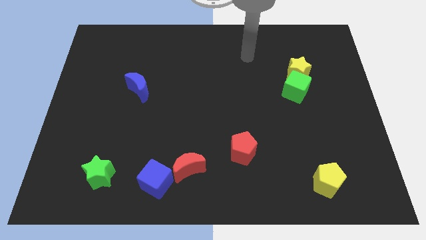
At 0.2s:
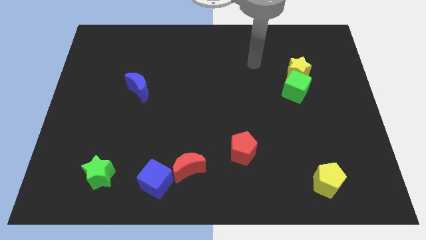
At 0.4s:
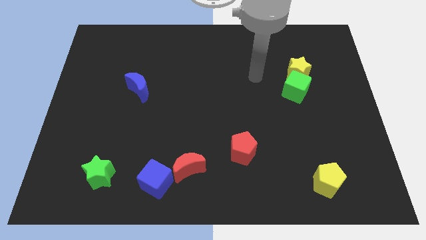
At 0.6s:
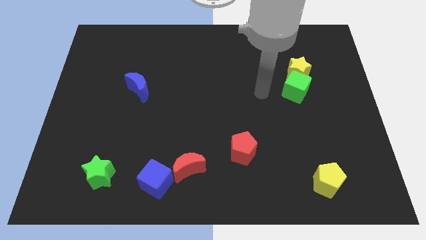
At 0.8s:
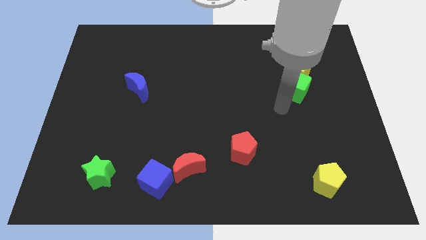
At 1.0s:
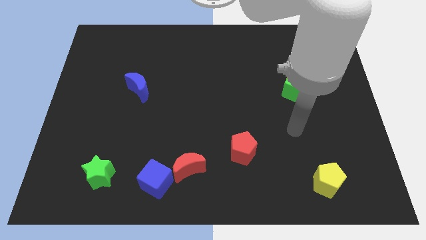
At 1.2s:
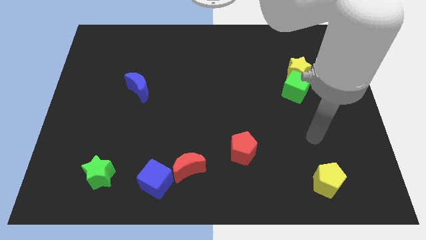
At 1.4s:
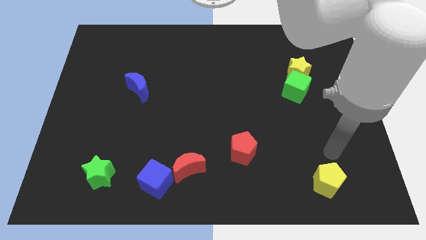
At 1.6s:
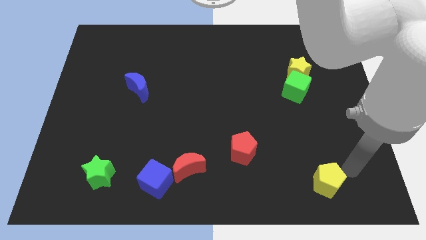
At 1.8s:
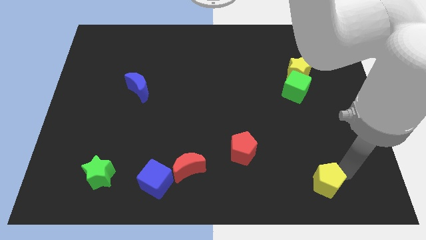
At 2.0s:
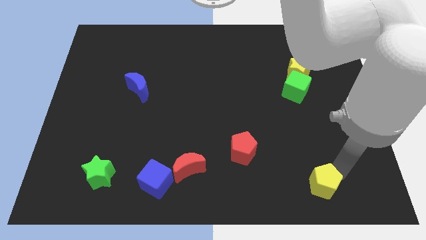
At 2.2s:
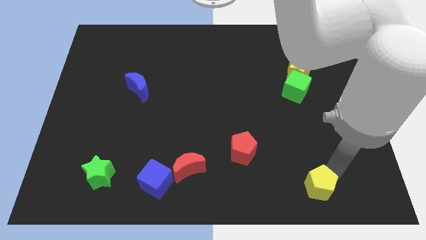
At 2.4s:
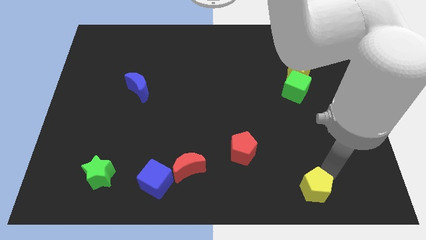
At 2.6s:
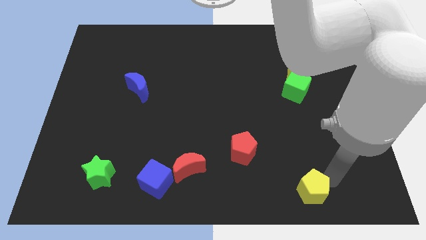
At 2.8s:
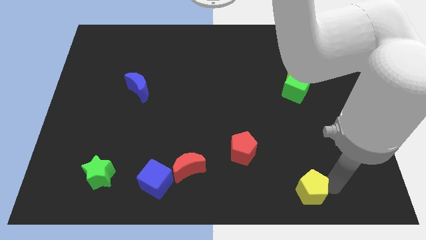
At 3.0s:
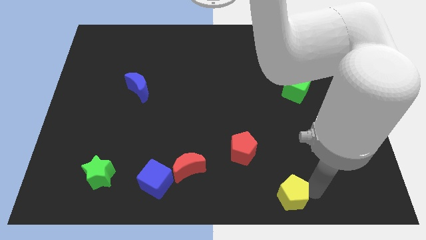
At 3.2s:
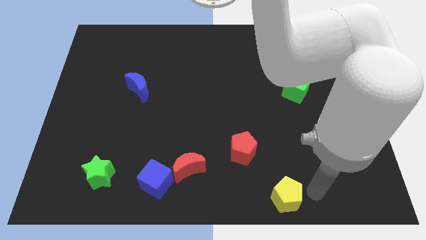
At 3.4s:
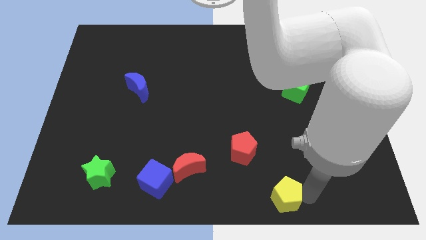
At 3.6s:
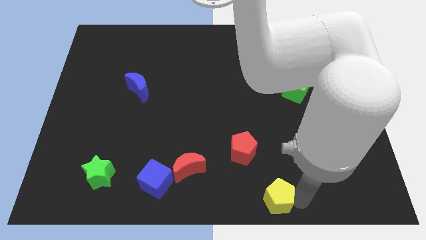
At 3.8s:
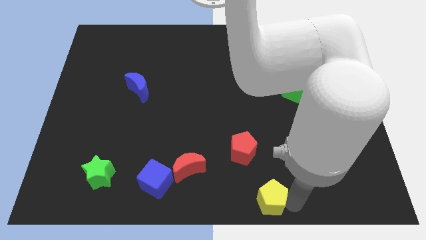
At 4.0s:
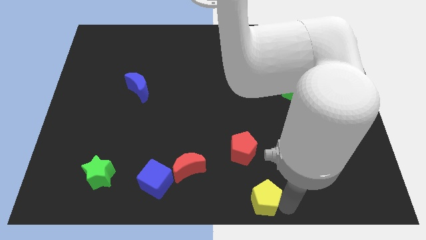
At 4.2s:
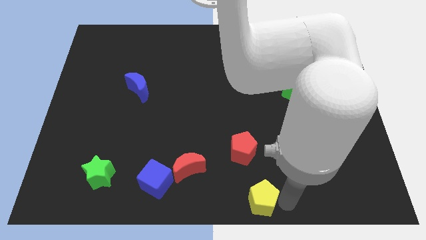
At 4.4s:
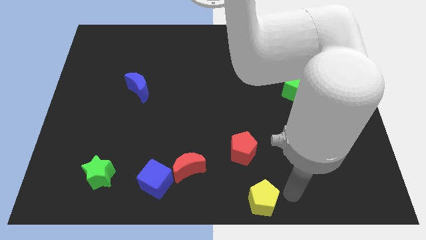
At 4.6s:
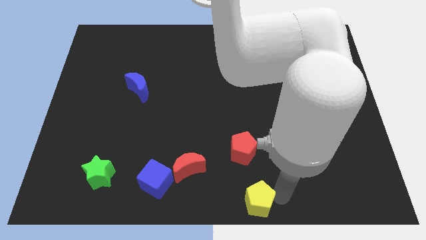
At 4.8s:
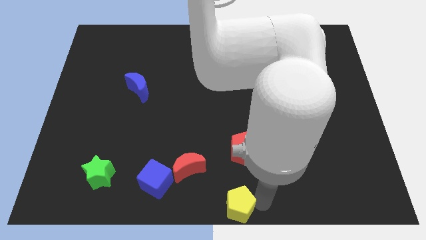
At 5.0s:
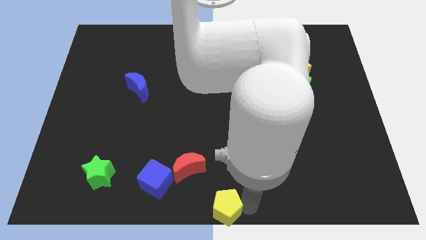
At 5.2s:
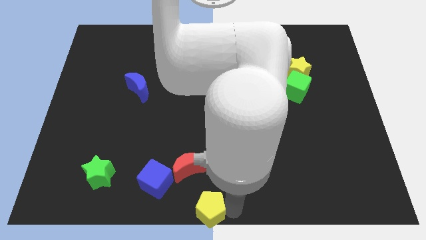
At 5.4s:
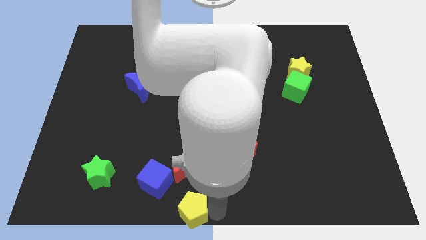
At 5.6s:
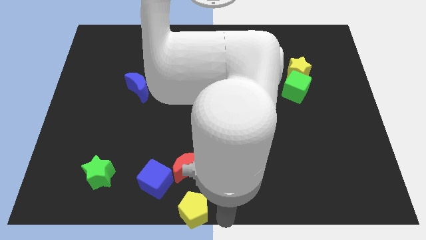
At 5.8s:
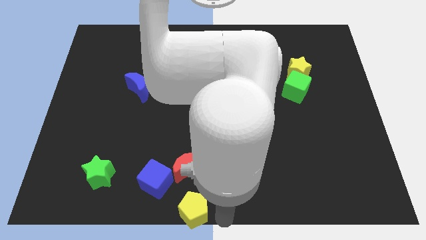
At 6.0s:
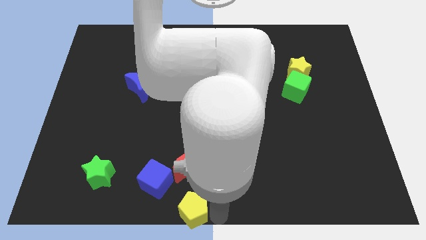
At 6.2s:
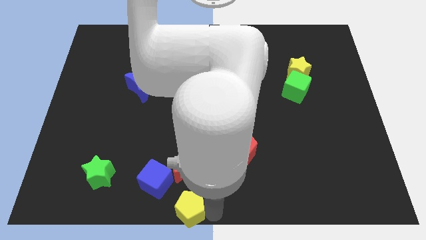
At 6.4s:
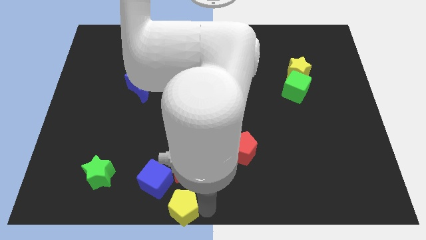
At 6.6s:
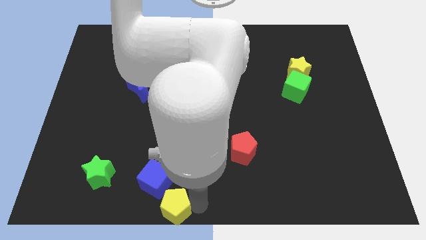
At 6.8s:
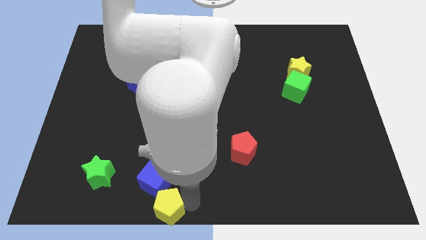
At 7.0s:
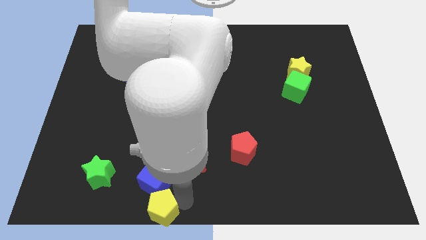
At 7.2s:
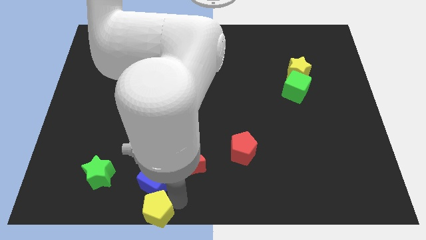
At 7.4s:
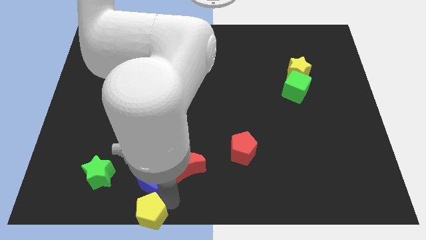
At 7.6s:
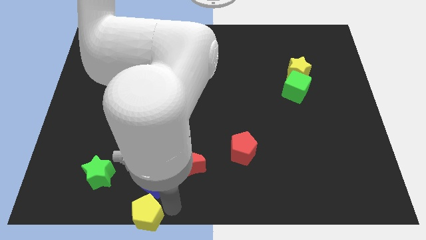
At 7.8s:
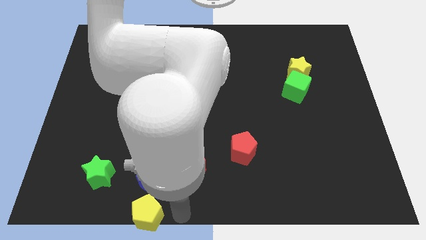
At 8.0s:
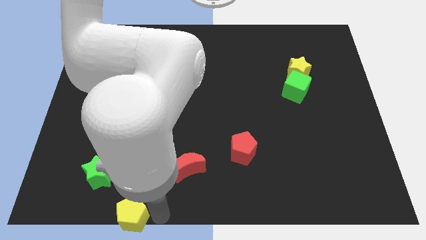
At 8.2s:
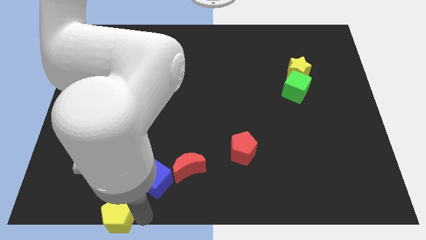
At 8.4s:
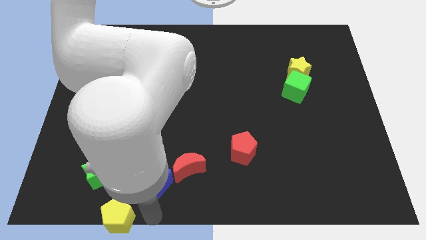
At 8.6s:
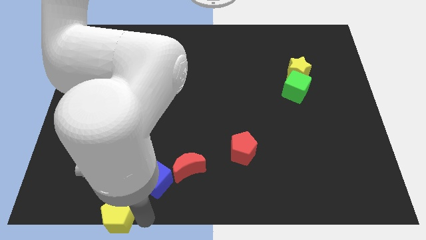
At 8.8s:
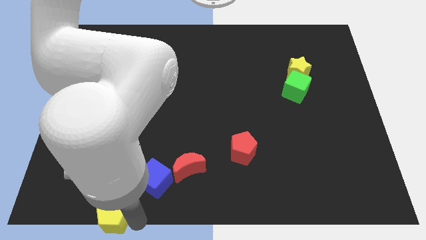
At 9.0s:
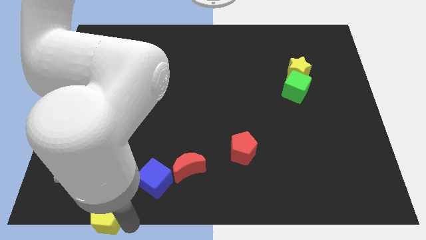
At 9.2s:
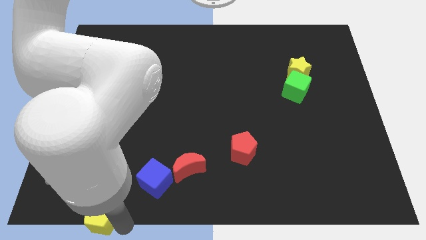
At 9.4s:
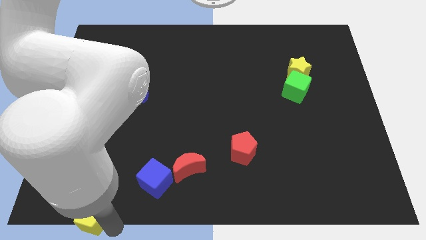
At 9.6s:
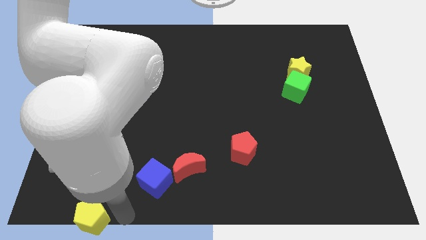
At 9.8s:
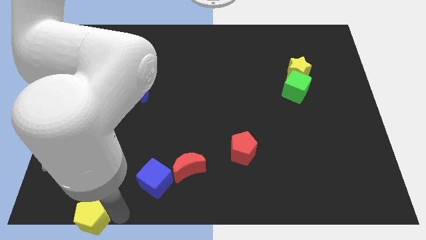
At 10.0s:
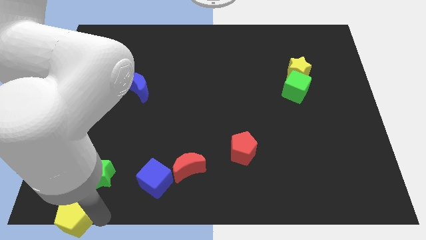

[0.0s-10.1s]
move the yellow pentagon to the bottom left corner

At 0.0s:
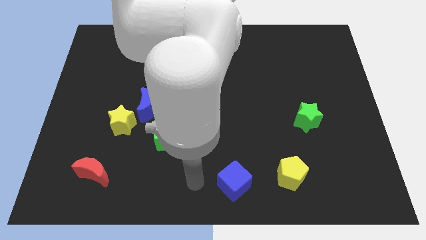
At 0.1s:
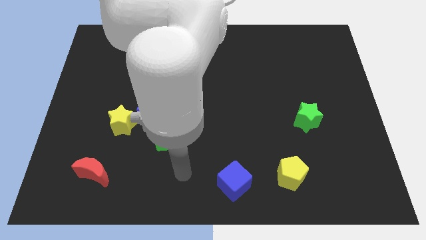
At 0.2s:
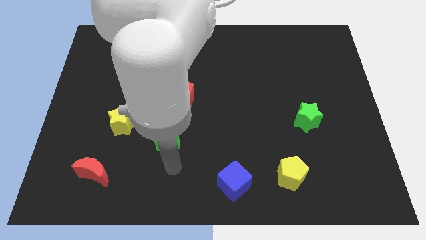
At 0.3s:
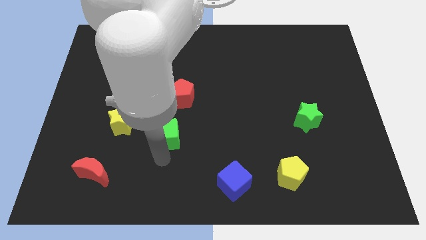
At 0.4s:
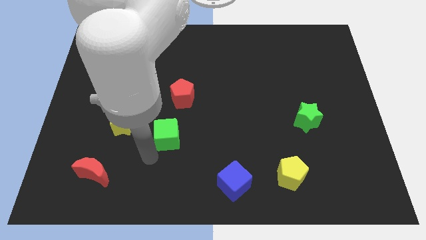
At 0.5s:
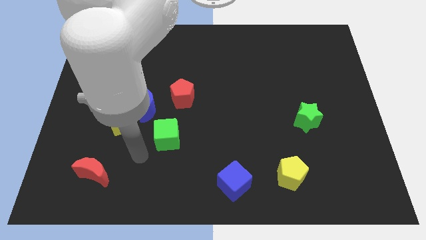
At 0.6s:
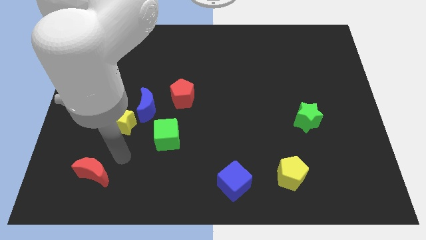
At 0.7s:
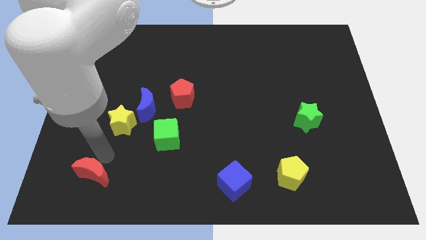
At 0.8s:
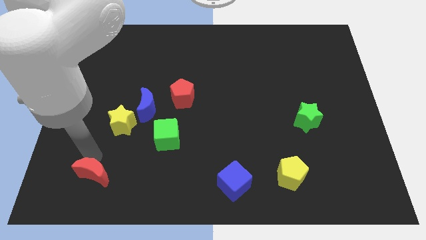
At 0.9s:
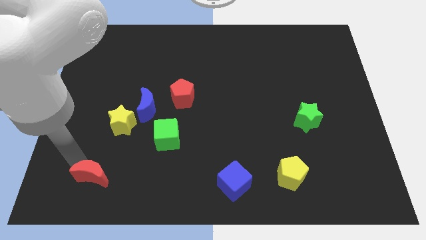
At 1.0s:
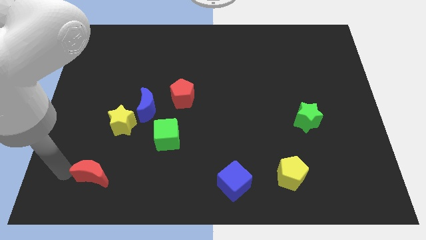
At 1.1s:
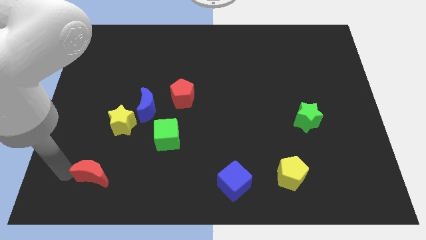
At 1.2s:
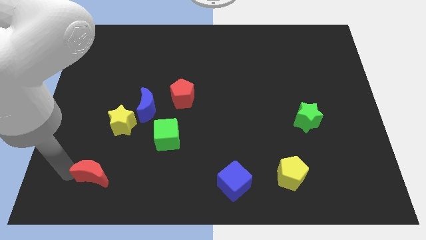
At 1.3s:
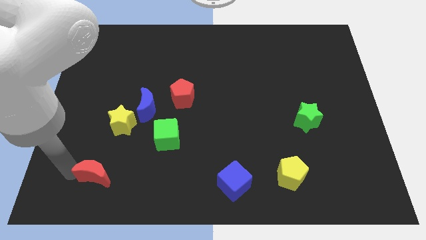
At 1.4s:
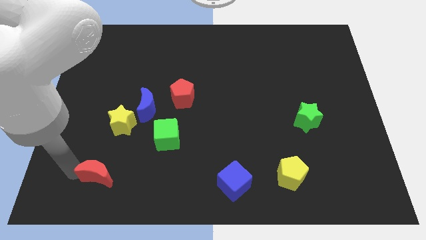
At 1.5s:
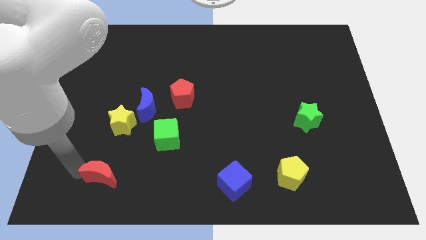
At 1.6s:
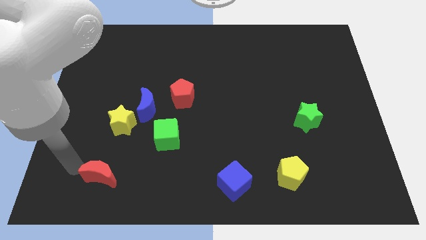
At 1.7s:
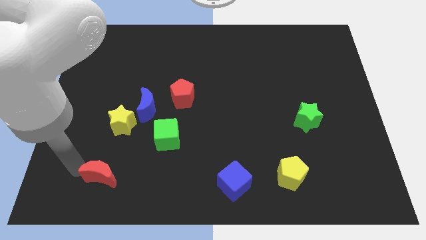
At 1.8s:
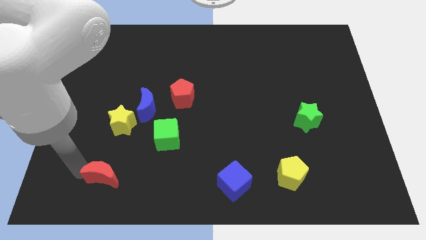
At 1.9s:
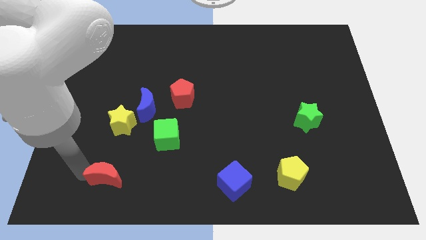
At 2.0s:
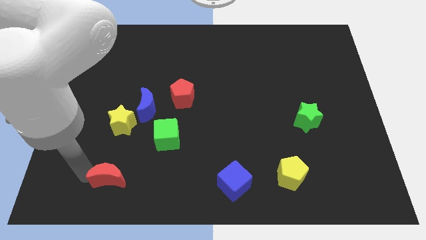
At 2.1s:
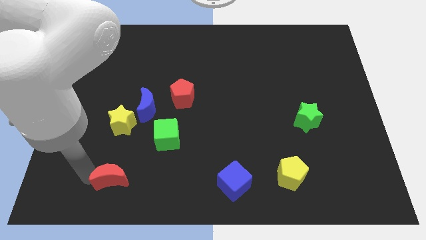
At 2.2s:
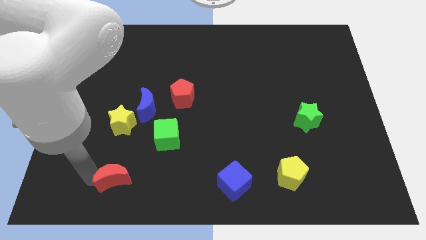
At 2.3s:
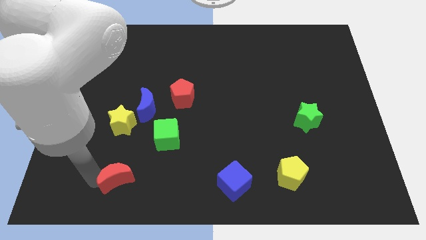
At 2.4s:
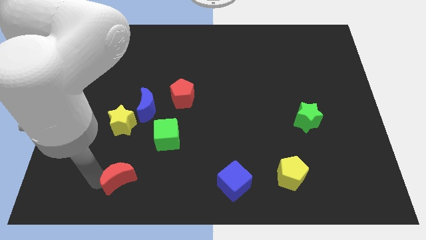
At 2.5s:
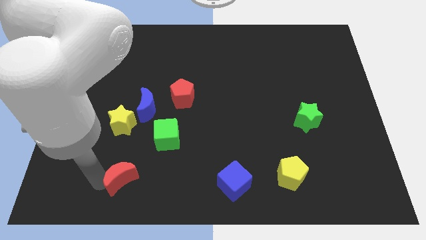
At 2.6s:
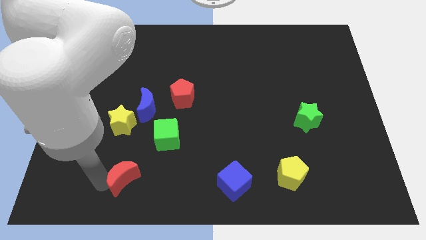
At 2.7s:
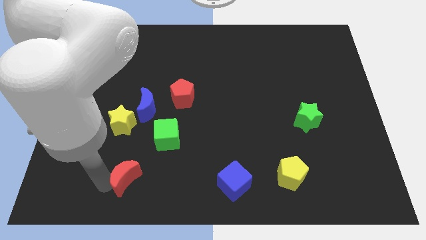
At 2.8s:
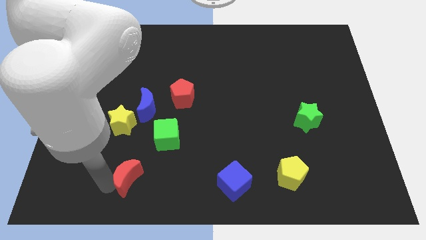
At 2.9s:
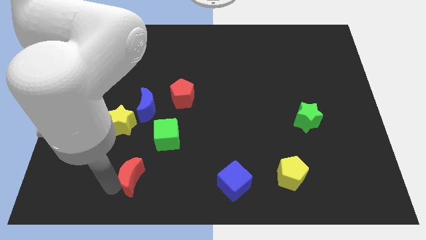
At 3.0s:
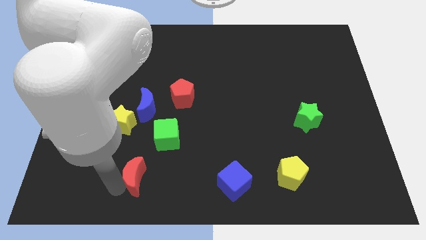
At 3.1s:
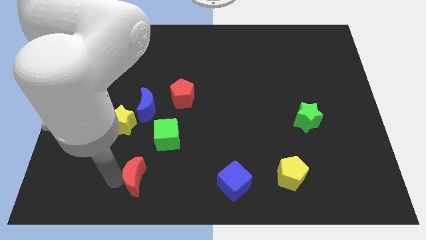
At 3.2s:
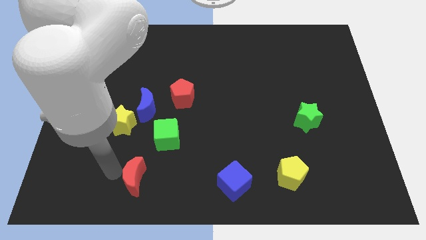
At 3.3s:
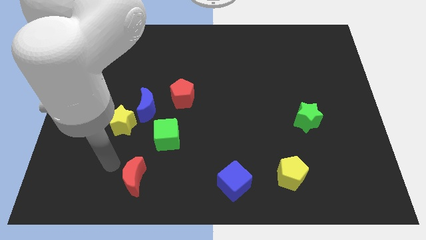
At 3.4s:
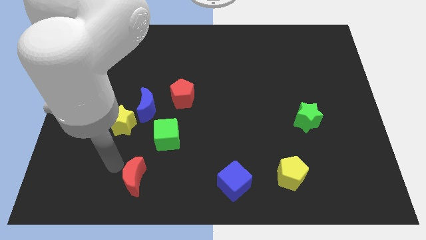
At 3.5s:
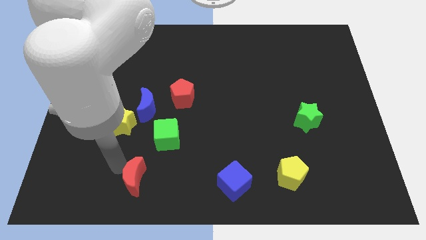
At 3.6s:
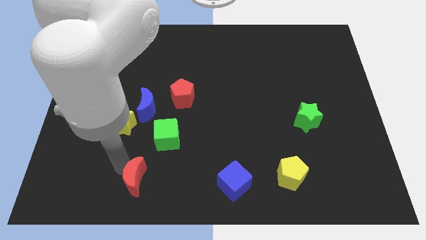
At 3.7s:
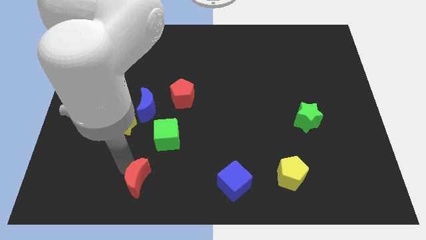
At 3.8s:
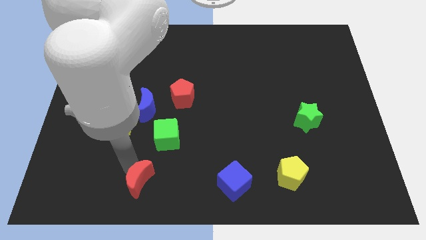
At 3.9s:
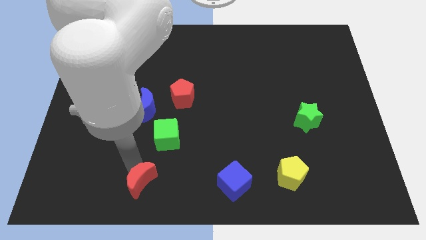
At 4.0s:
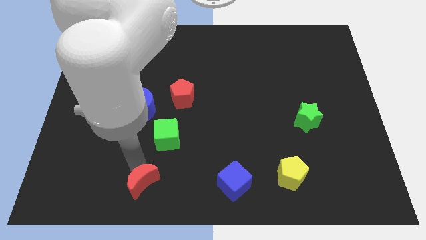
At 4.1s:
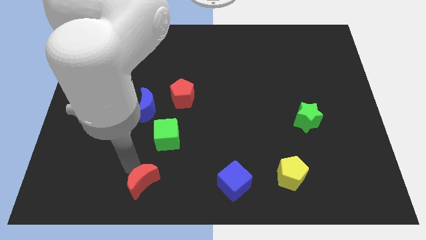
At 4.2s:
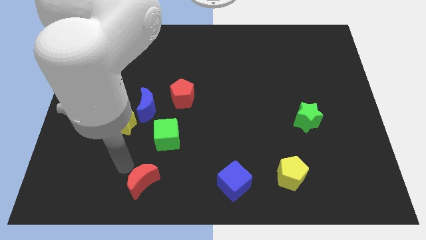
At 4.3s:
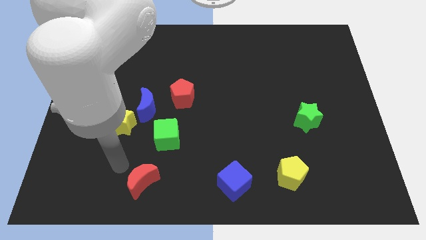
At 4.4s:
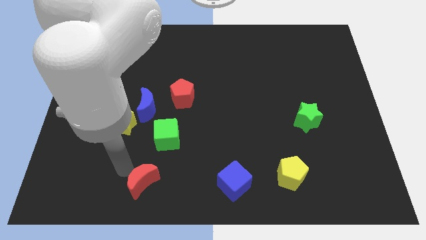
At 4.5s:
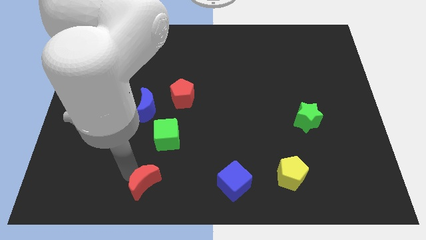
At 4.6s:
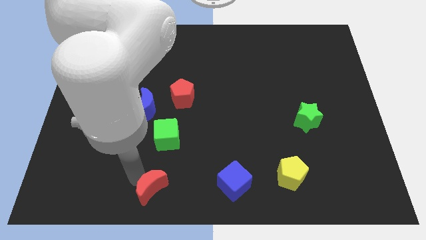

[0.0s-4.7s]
put the red moon to the bottom
